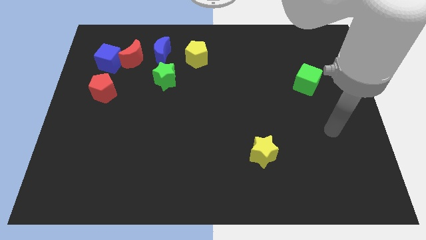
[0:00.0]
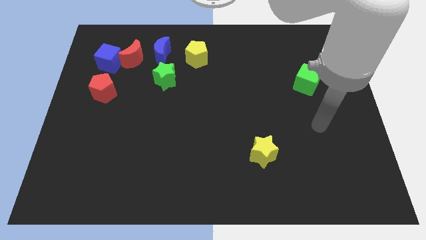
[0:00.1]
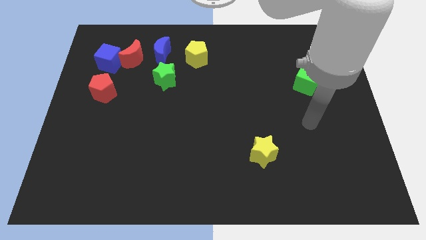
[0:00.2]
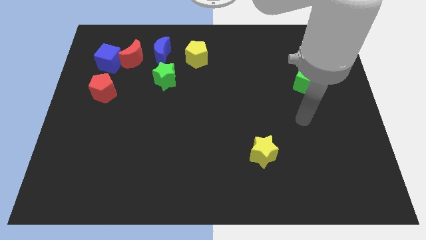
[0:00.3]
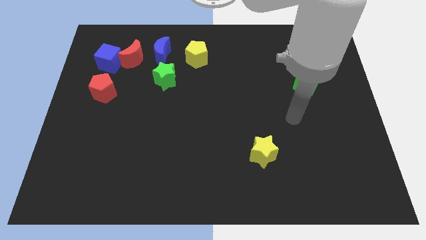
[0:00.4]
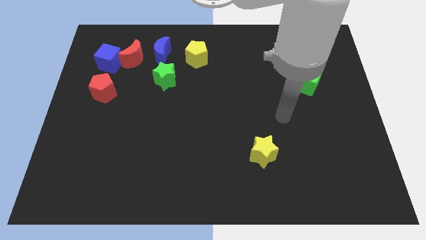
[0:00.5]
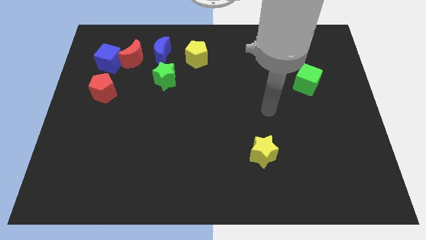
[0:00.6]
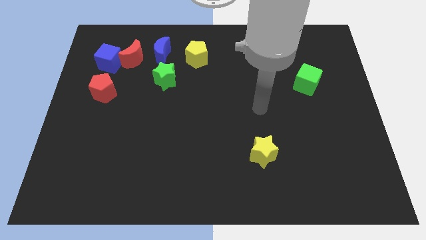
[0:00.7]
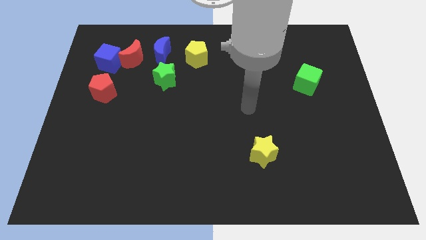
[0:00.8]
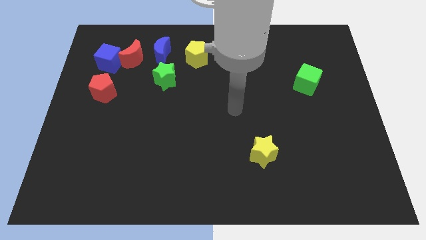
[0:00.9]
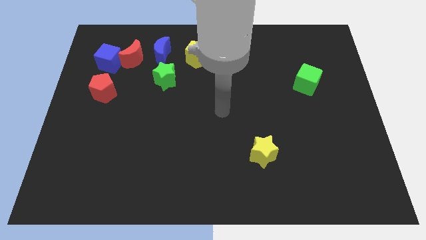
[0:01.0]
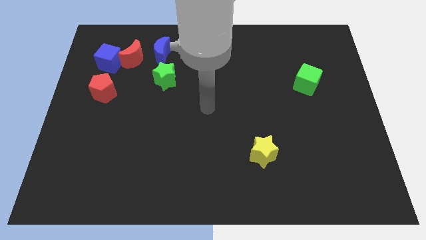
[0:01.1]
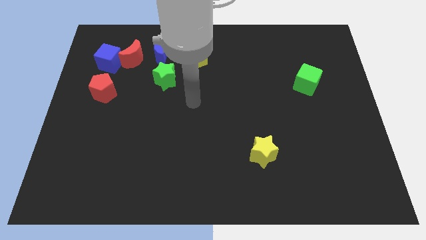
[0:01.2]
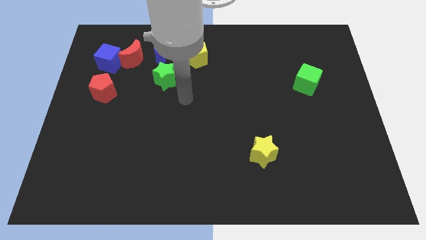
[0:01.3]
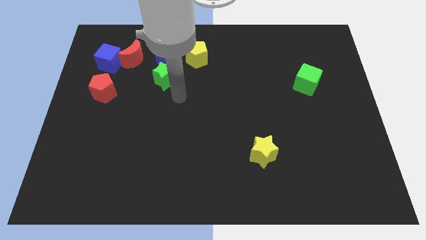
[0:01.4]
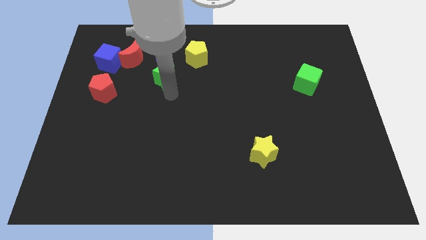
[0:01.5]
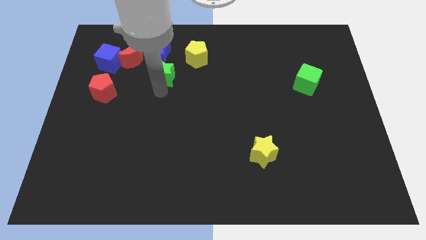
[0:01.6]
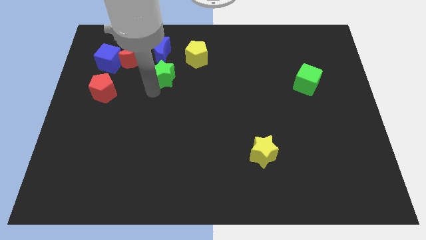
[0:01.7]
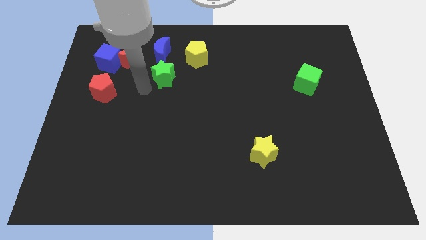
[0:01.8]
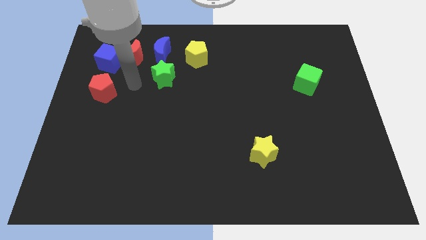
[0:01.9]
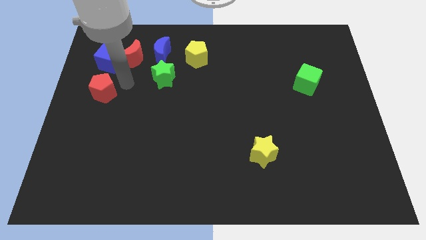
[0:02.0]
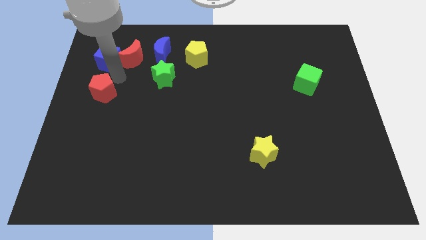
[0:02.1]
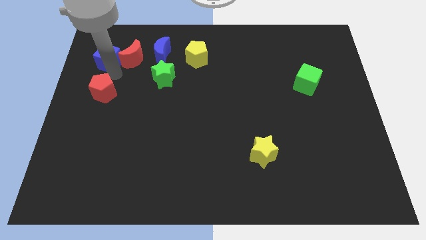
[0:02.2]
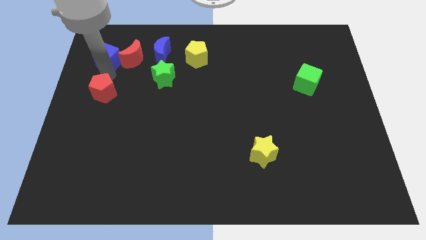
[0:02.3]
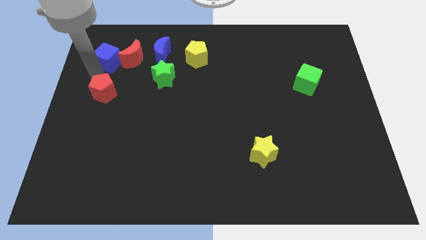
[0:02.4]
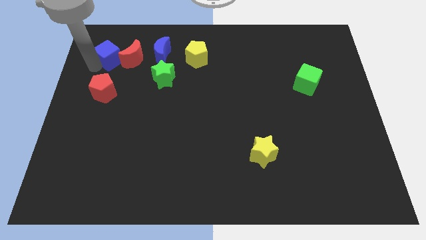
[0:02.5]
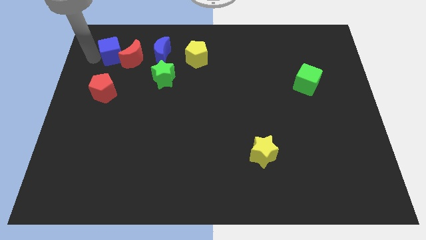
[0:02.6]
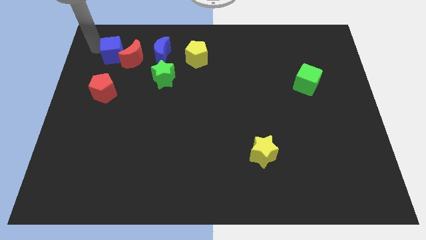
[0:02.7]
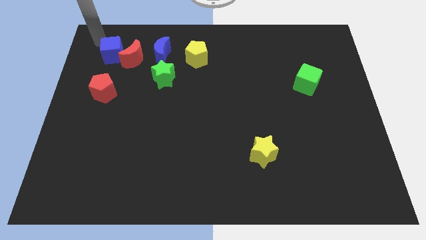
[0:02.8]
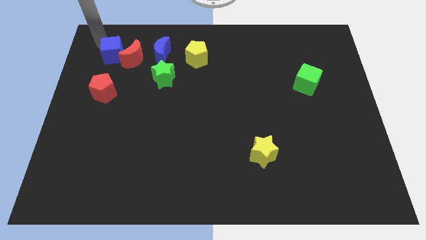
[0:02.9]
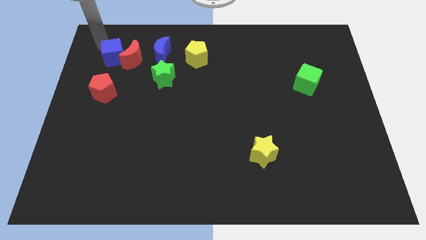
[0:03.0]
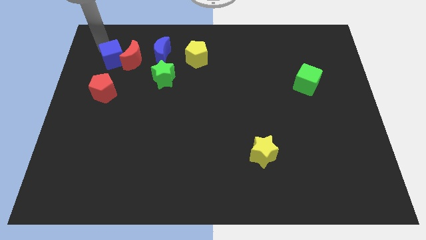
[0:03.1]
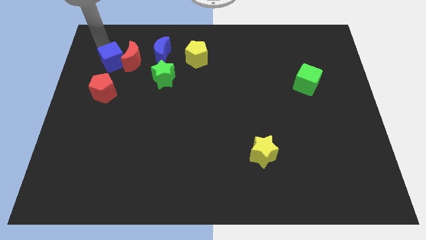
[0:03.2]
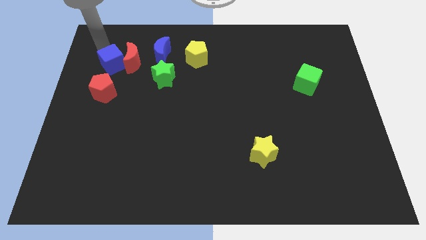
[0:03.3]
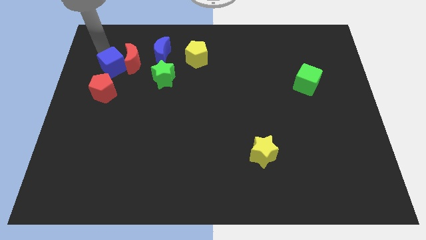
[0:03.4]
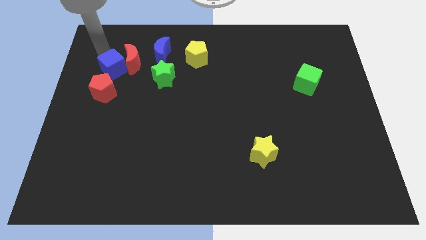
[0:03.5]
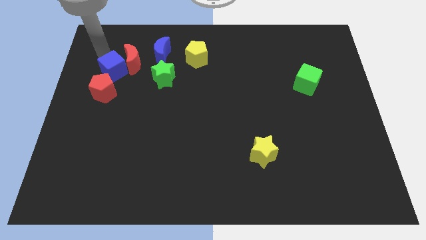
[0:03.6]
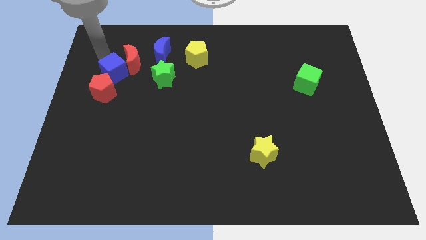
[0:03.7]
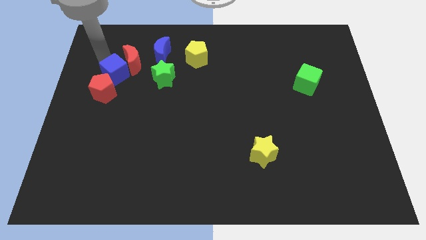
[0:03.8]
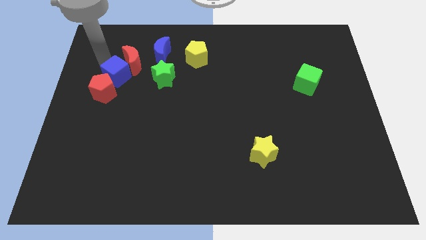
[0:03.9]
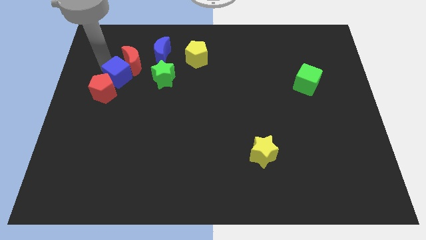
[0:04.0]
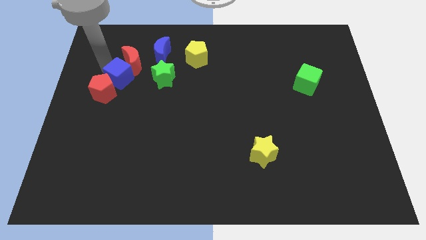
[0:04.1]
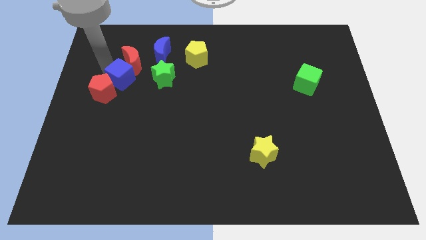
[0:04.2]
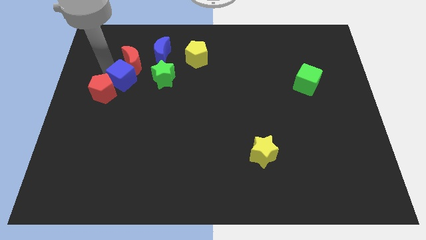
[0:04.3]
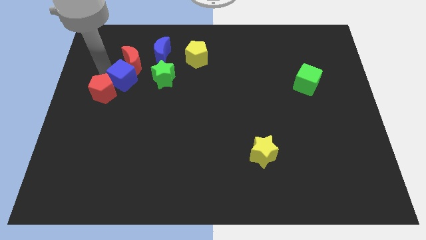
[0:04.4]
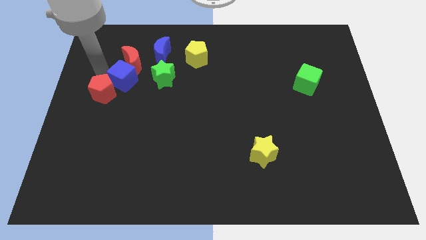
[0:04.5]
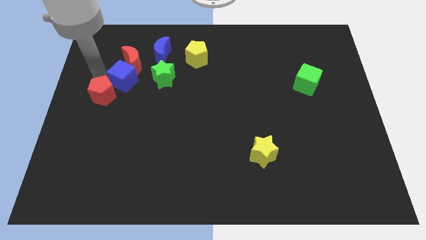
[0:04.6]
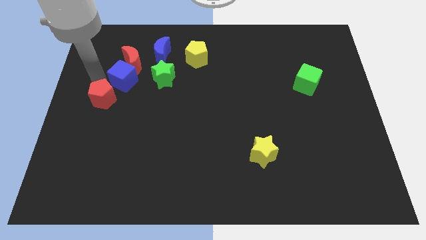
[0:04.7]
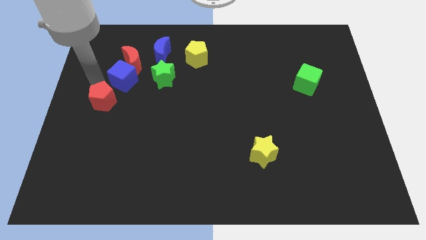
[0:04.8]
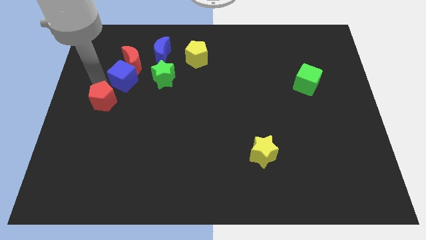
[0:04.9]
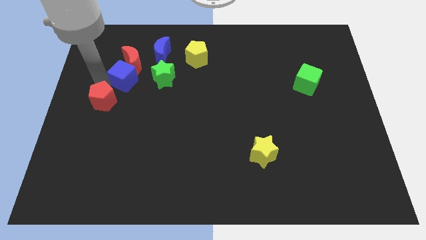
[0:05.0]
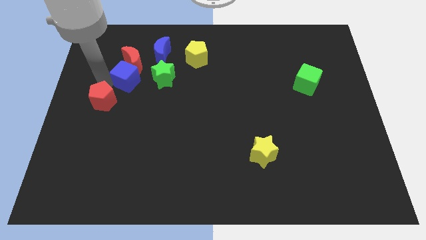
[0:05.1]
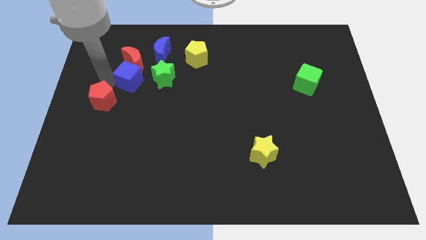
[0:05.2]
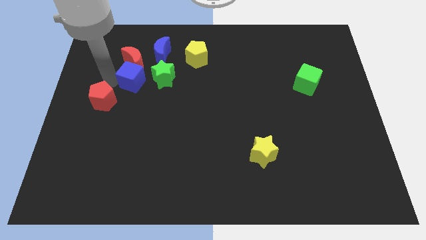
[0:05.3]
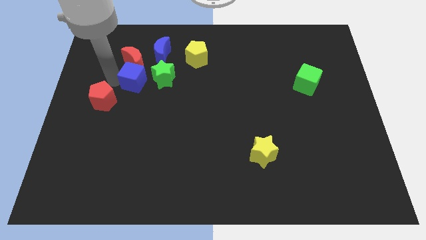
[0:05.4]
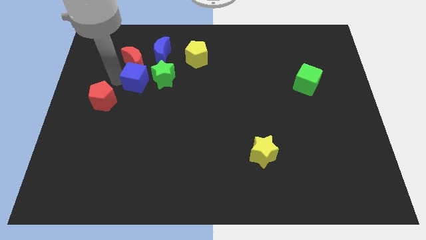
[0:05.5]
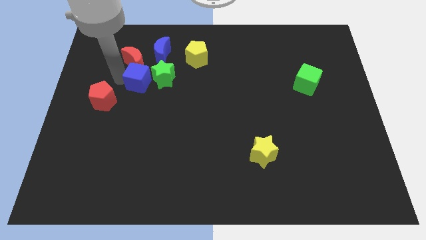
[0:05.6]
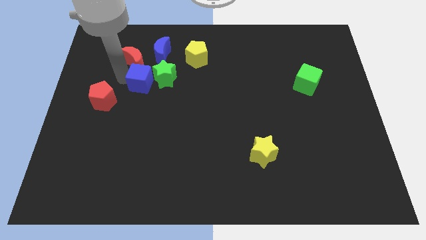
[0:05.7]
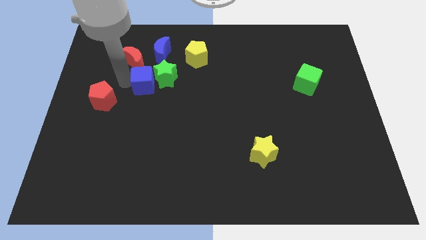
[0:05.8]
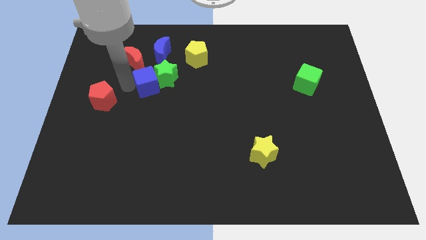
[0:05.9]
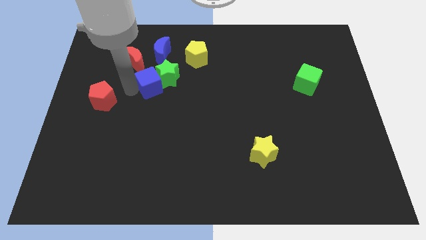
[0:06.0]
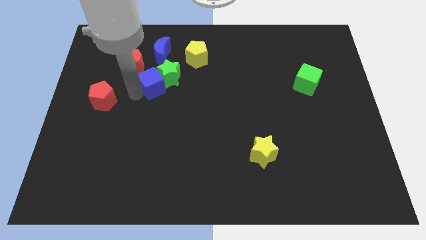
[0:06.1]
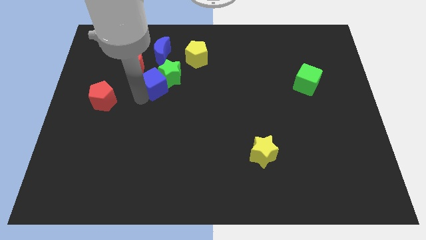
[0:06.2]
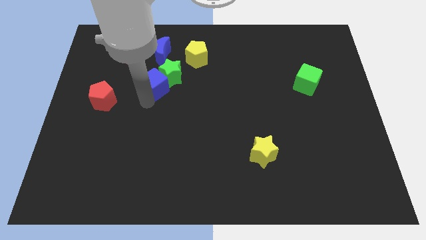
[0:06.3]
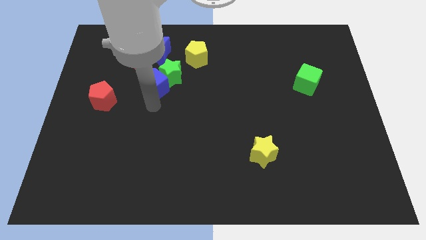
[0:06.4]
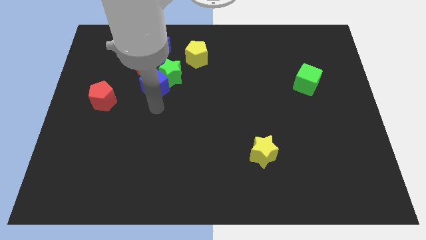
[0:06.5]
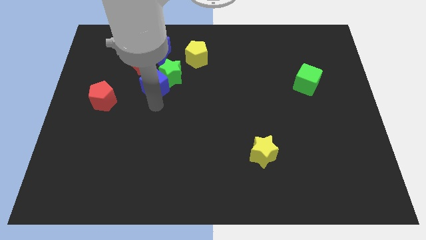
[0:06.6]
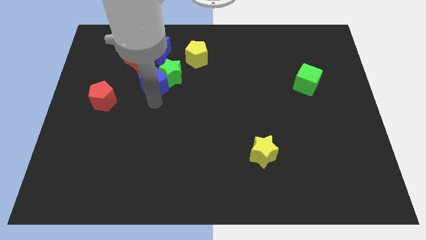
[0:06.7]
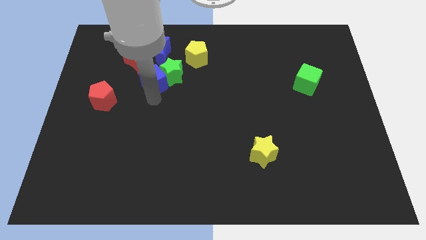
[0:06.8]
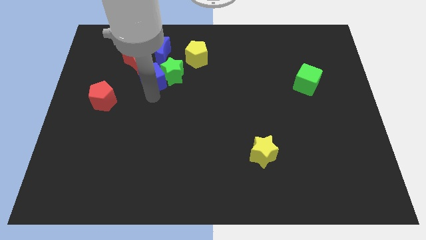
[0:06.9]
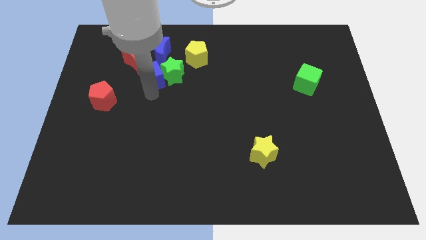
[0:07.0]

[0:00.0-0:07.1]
move the blue cube to the top left side of the green star
